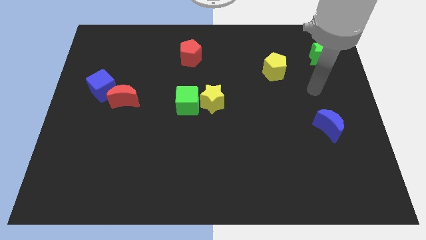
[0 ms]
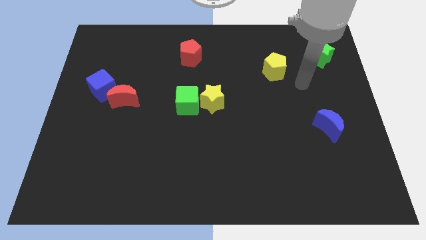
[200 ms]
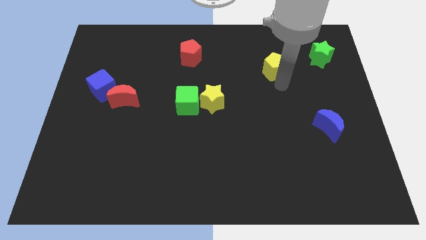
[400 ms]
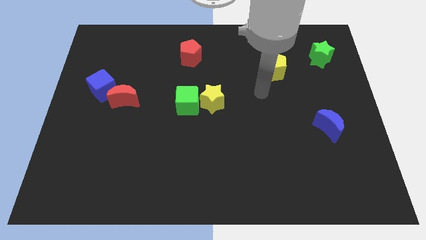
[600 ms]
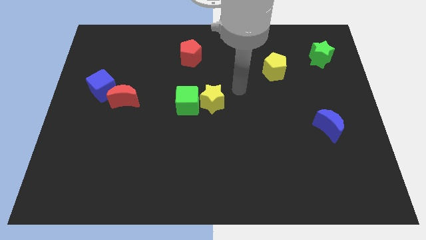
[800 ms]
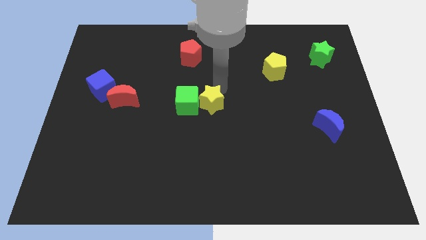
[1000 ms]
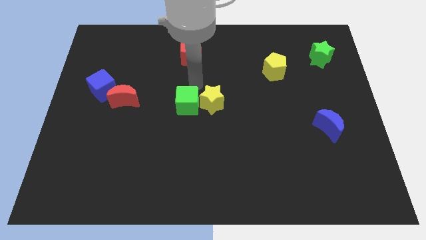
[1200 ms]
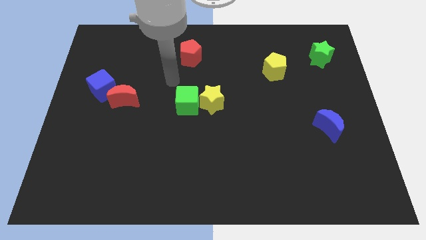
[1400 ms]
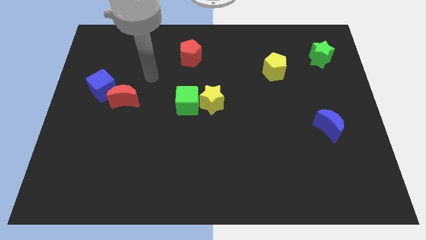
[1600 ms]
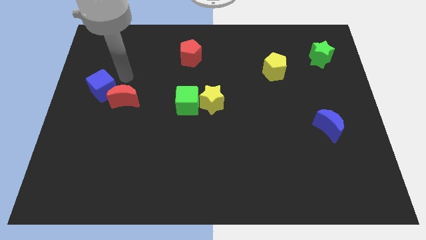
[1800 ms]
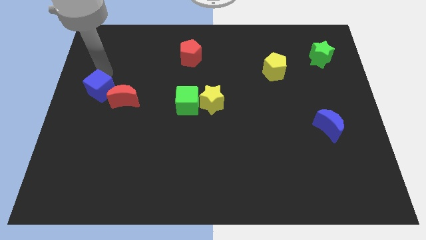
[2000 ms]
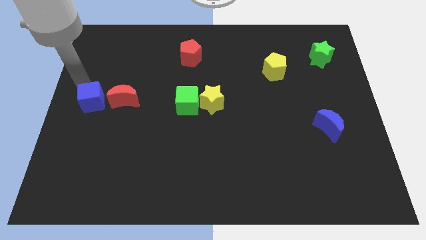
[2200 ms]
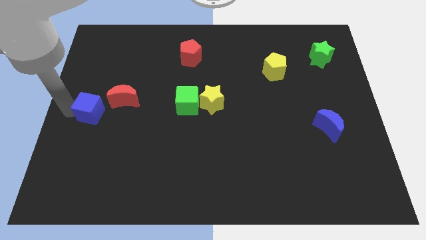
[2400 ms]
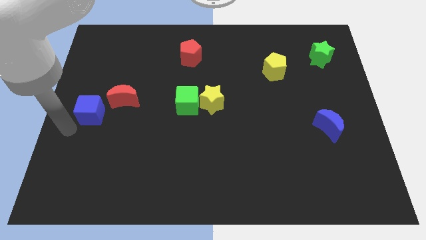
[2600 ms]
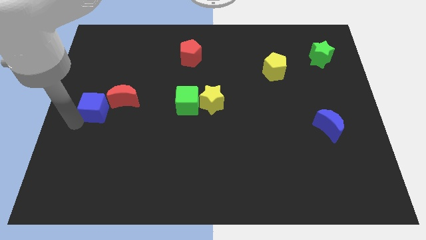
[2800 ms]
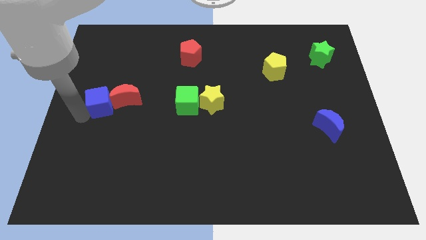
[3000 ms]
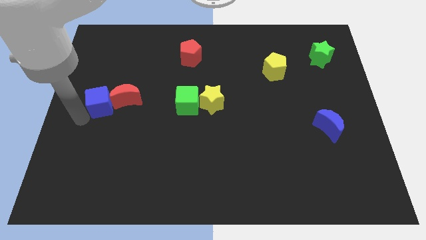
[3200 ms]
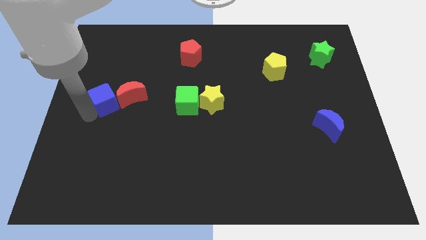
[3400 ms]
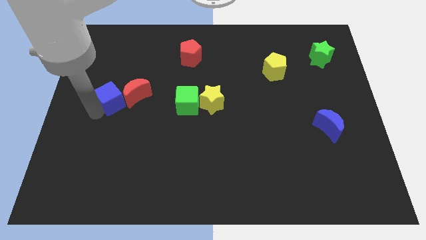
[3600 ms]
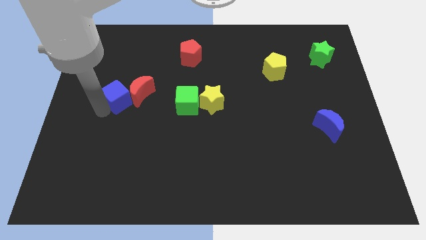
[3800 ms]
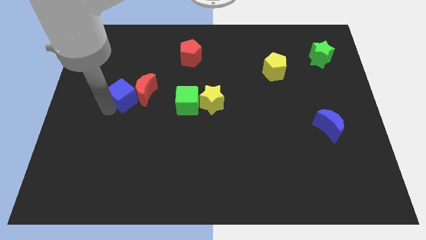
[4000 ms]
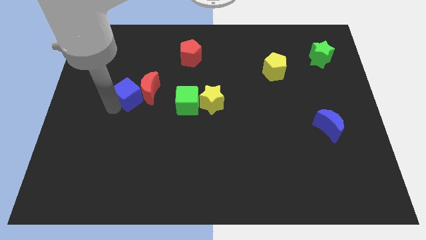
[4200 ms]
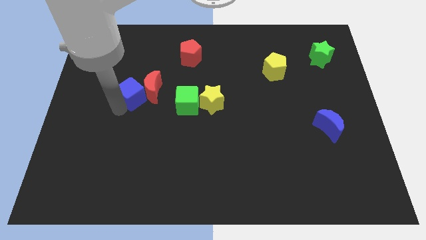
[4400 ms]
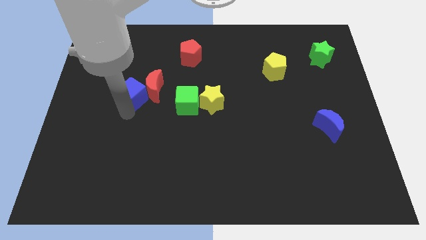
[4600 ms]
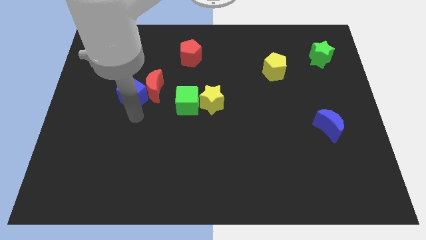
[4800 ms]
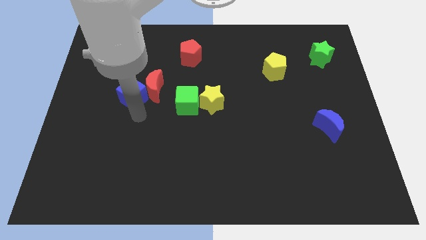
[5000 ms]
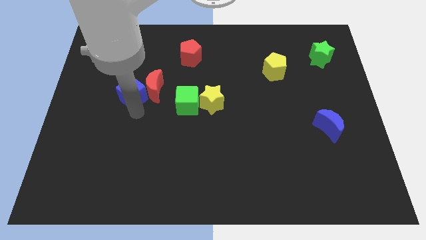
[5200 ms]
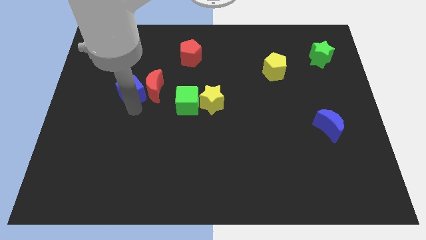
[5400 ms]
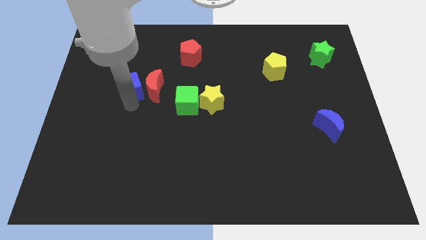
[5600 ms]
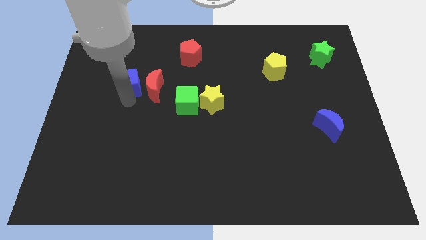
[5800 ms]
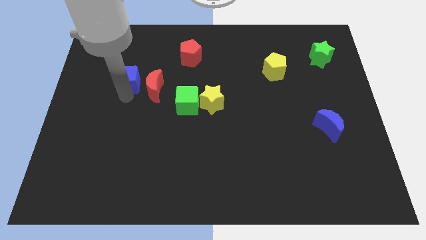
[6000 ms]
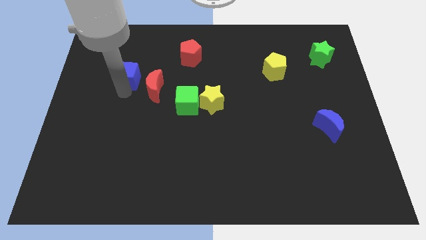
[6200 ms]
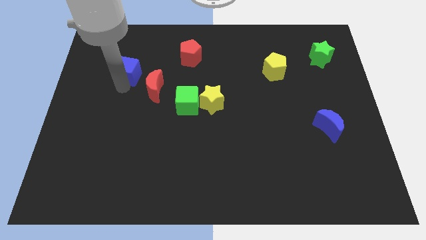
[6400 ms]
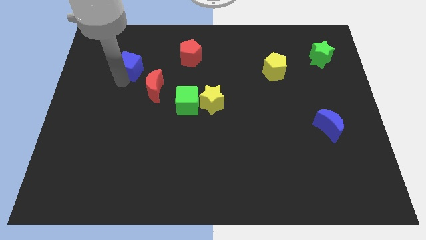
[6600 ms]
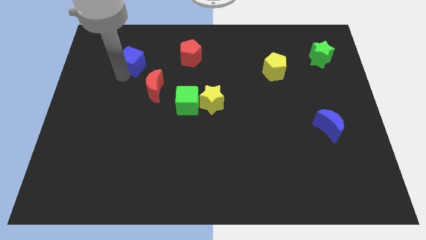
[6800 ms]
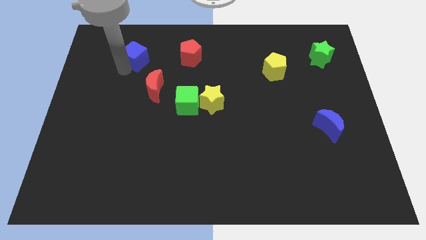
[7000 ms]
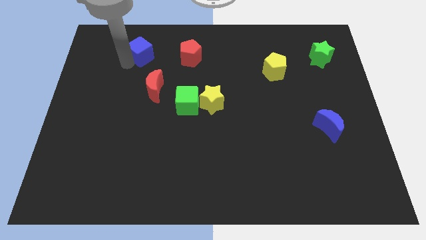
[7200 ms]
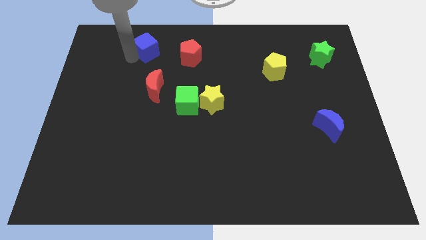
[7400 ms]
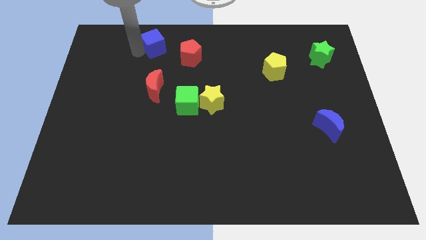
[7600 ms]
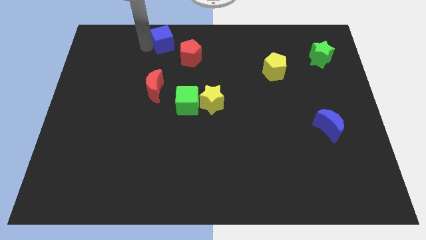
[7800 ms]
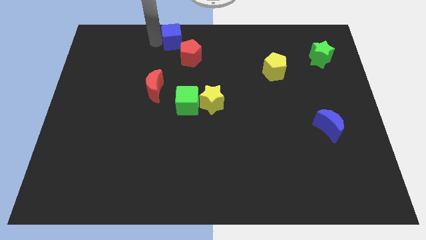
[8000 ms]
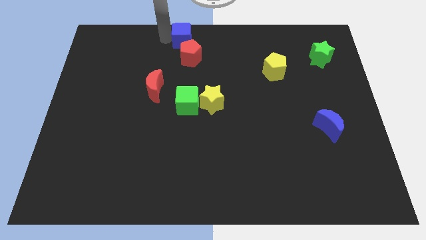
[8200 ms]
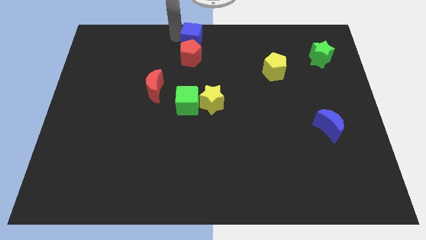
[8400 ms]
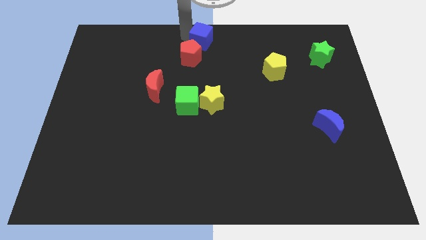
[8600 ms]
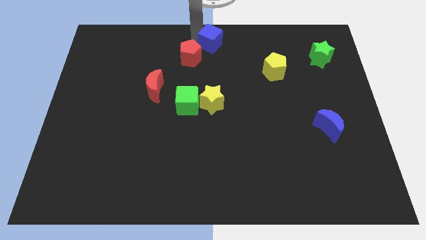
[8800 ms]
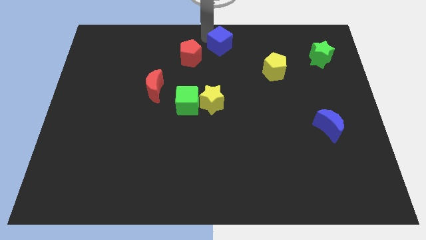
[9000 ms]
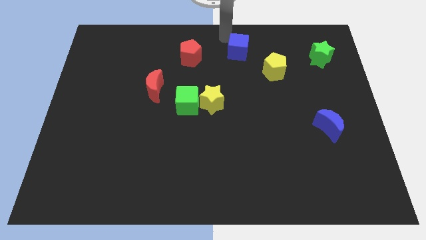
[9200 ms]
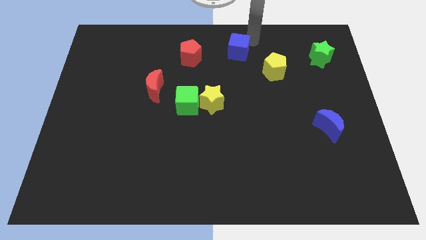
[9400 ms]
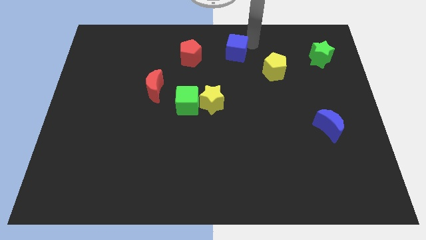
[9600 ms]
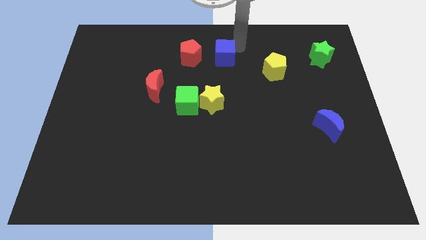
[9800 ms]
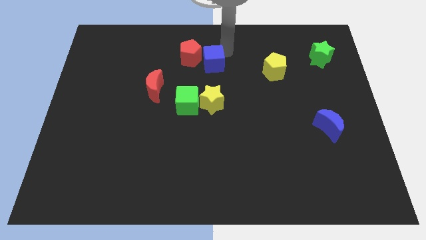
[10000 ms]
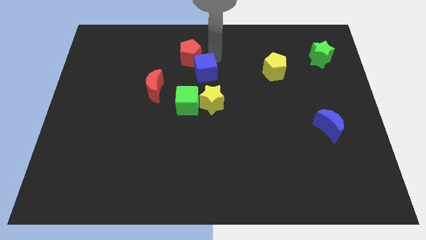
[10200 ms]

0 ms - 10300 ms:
slide the blue cube to the bottom side of the red pentagon

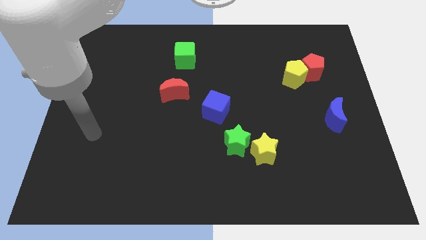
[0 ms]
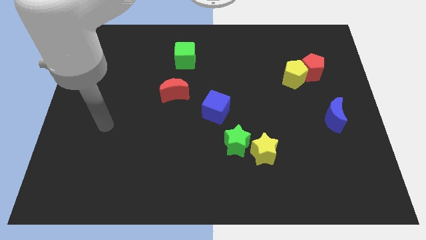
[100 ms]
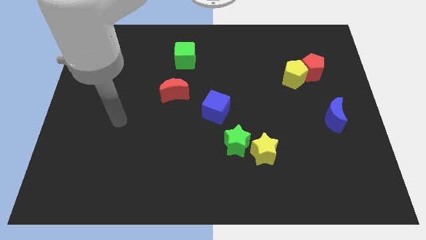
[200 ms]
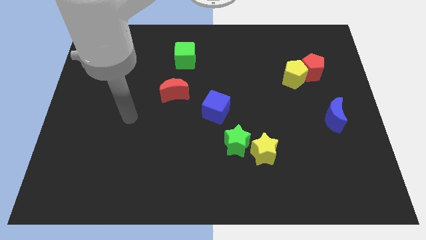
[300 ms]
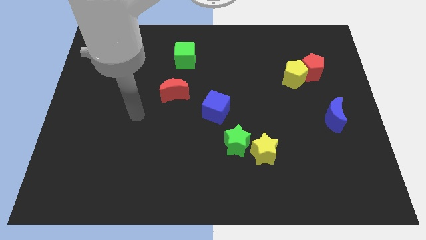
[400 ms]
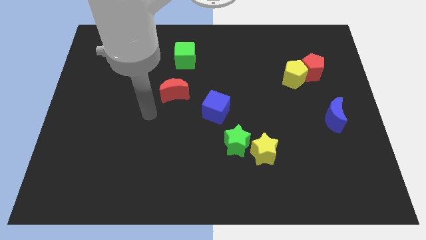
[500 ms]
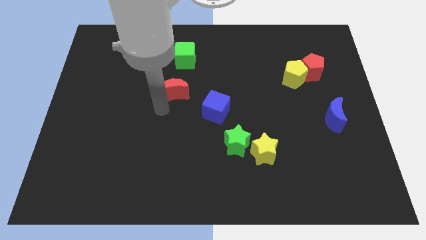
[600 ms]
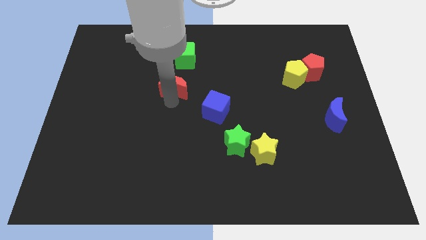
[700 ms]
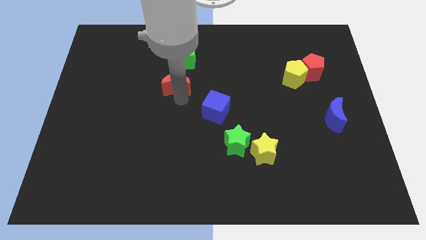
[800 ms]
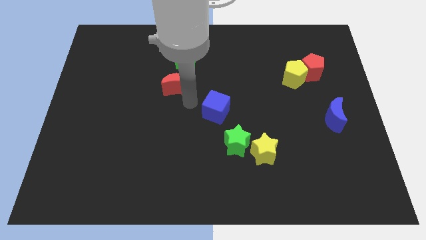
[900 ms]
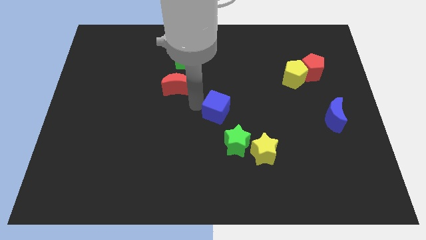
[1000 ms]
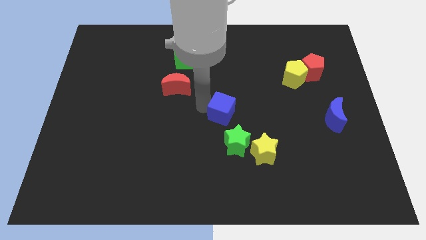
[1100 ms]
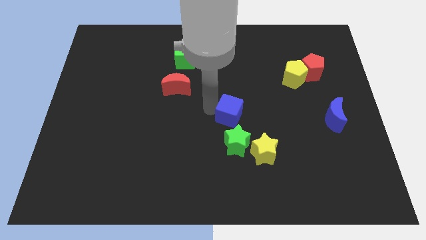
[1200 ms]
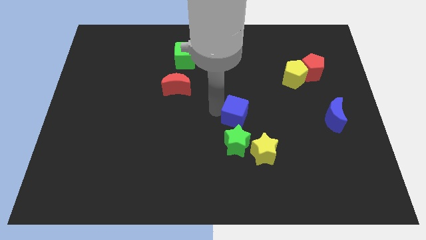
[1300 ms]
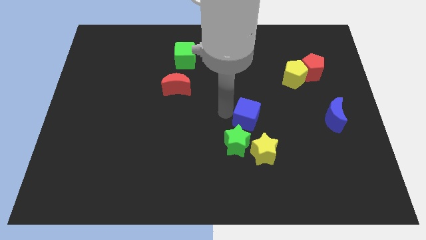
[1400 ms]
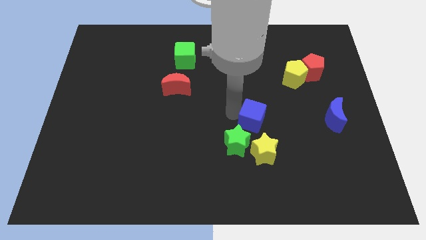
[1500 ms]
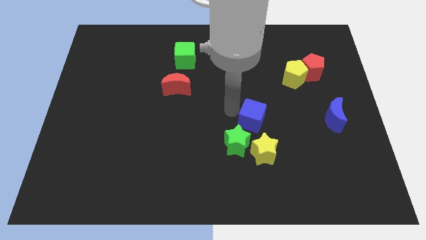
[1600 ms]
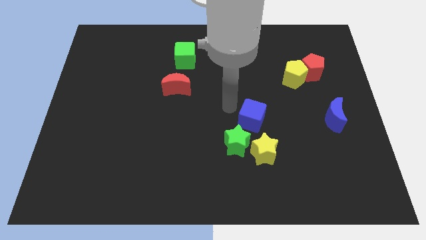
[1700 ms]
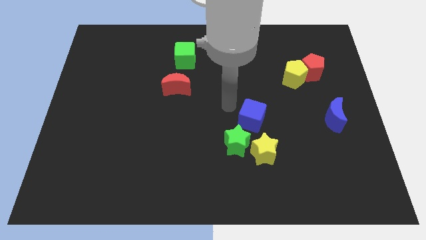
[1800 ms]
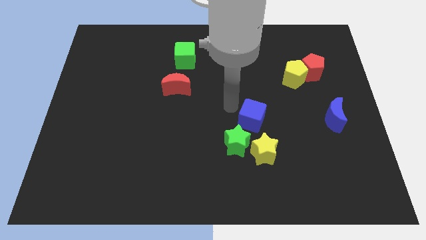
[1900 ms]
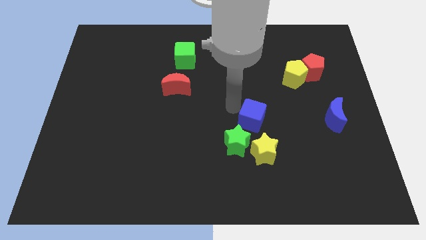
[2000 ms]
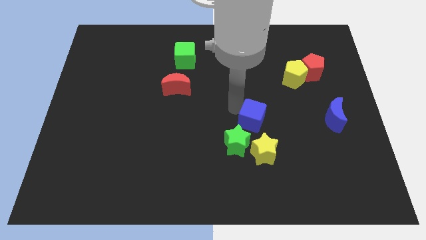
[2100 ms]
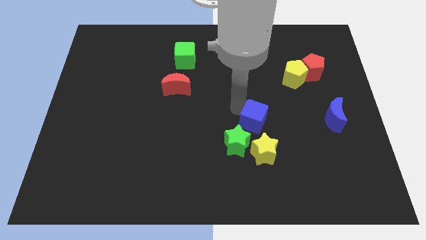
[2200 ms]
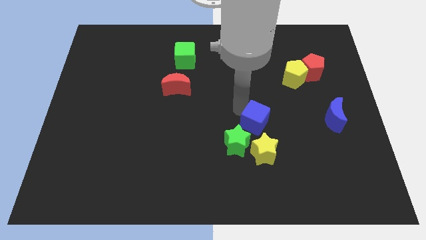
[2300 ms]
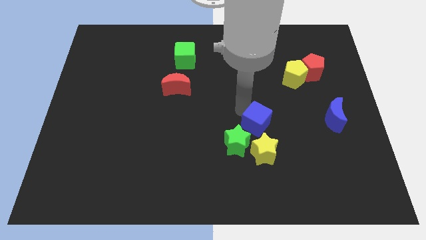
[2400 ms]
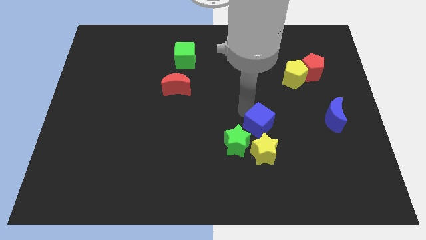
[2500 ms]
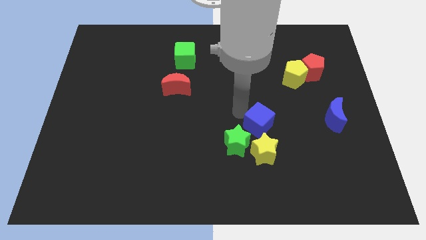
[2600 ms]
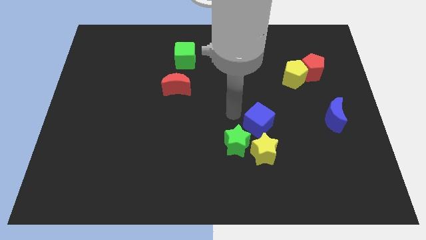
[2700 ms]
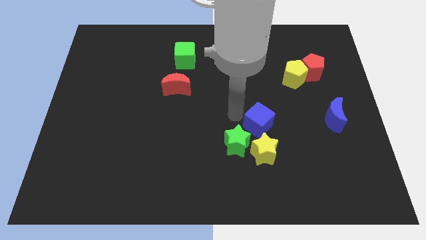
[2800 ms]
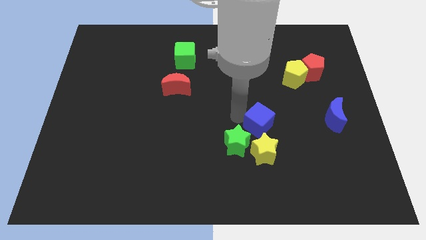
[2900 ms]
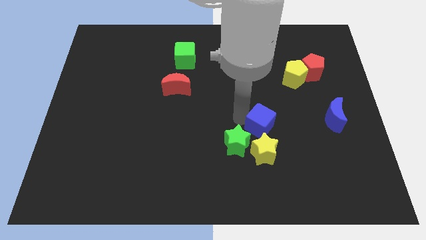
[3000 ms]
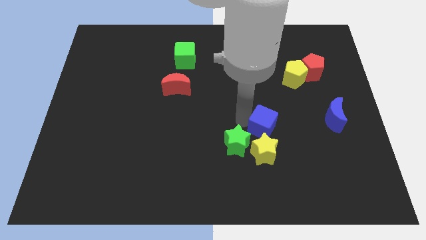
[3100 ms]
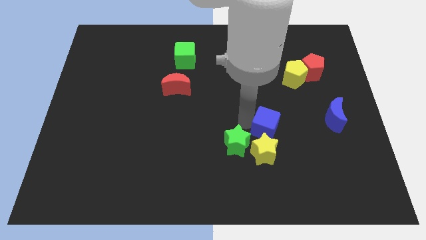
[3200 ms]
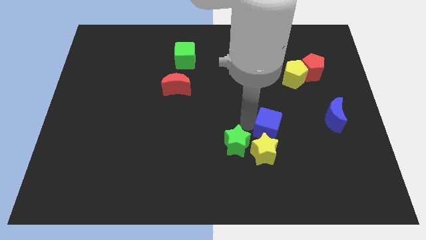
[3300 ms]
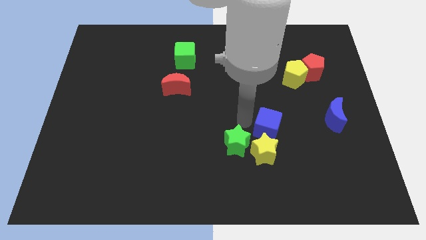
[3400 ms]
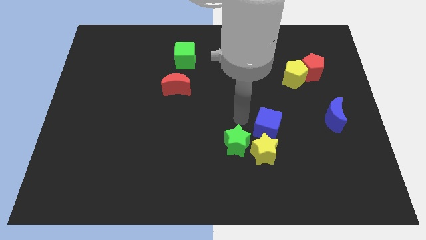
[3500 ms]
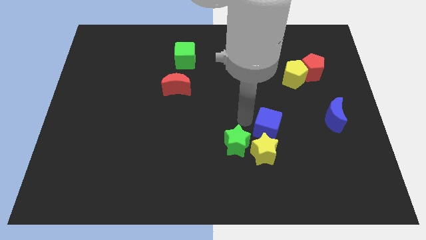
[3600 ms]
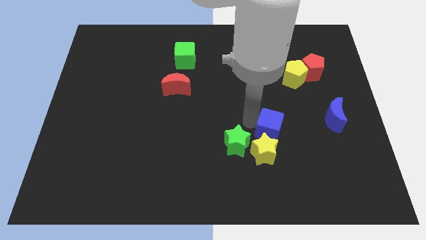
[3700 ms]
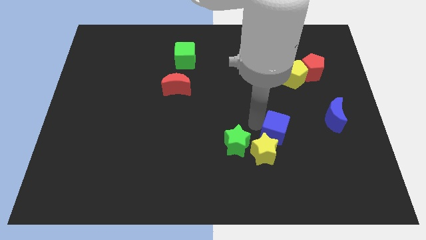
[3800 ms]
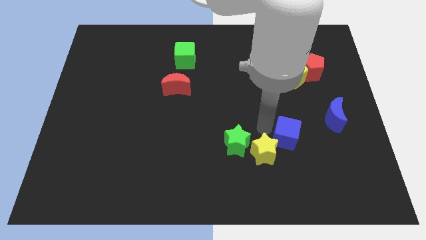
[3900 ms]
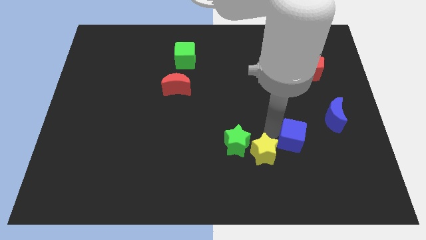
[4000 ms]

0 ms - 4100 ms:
push the blue cube to the bottom left of the blue moon
